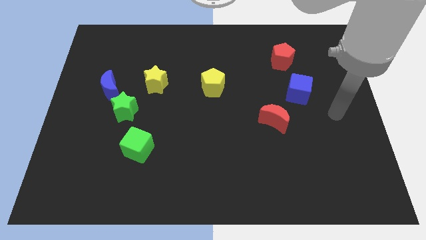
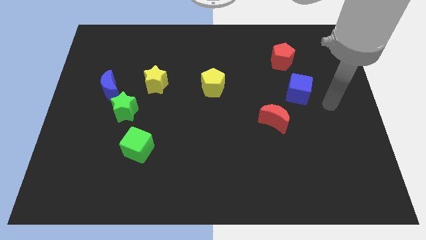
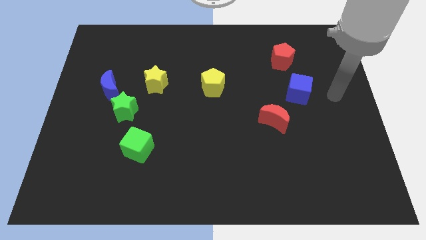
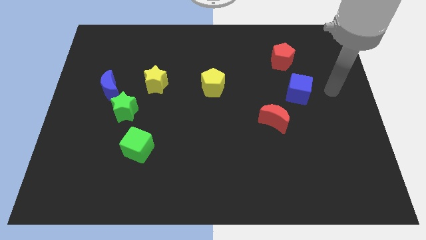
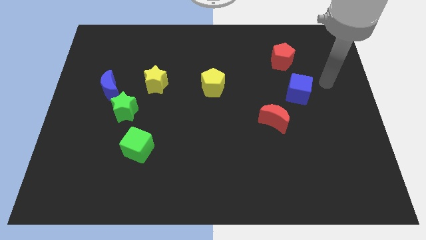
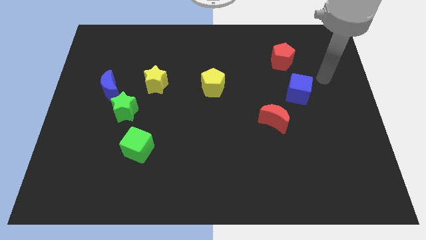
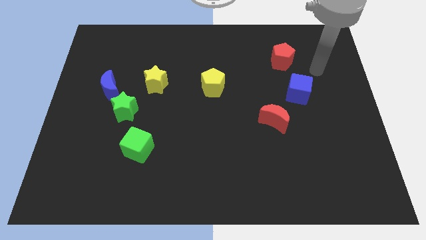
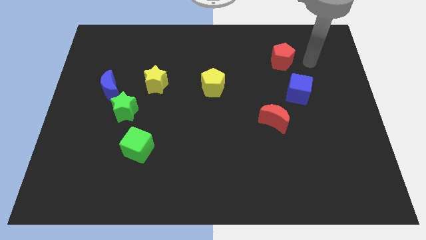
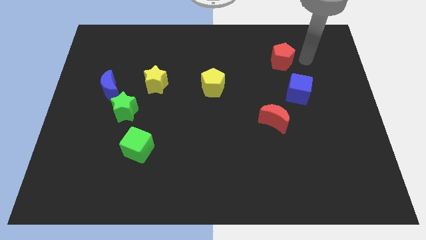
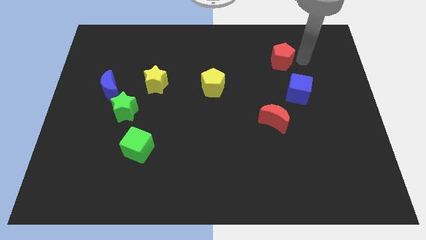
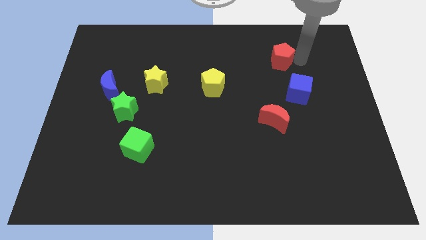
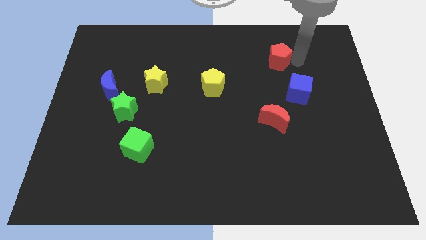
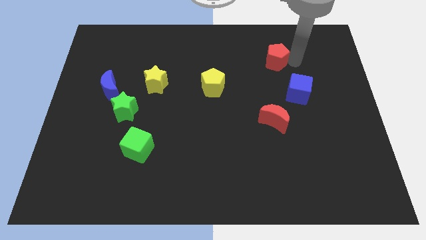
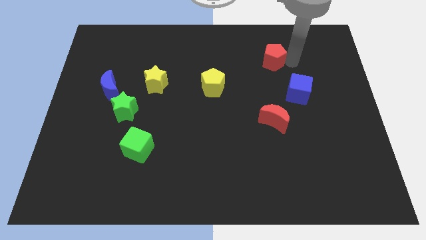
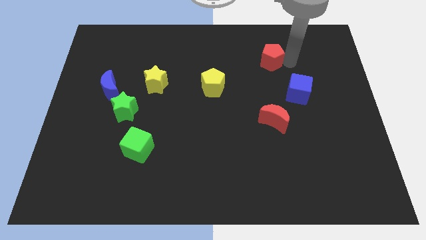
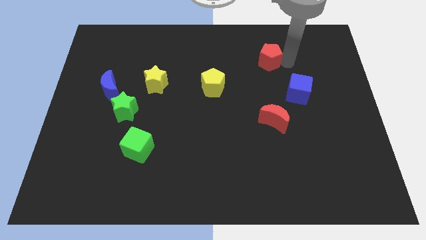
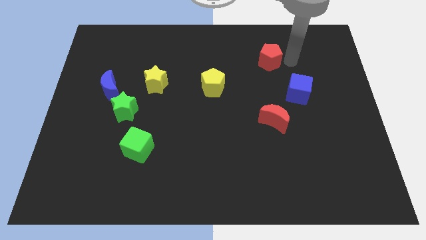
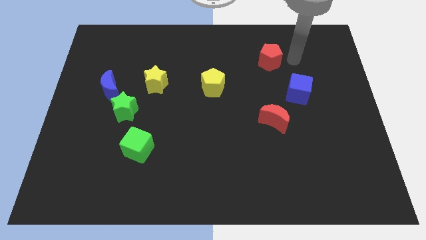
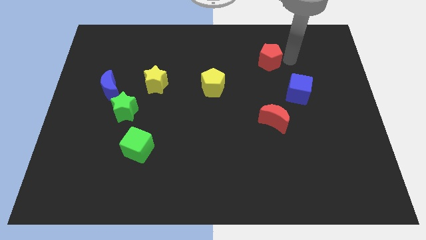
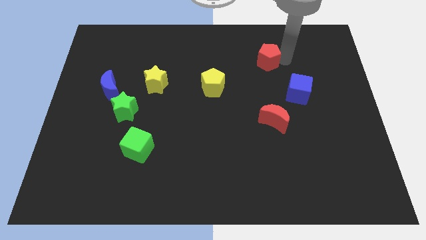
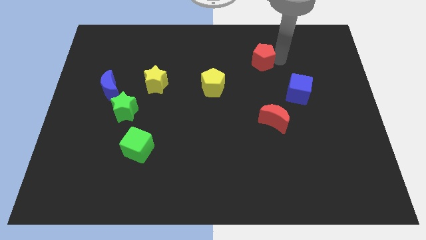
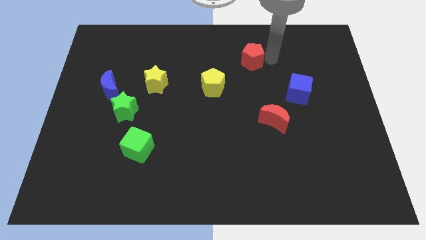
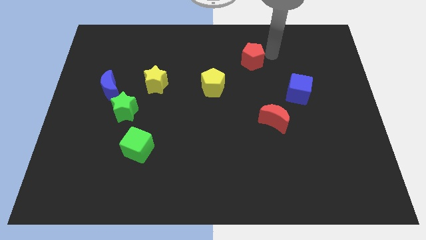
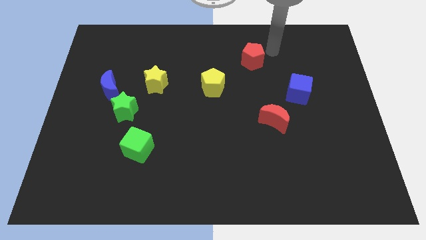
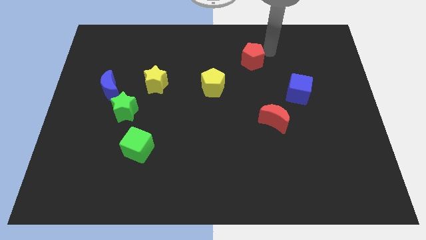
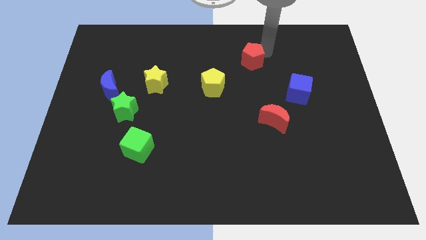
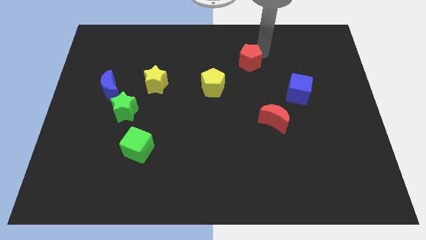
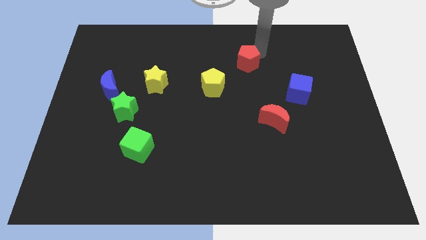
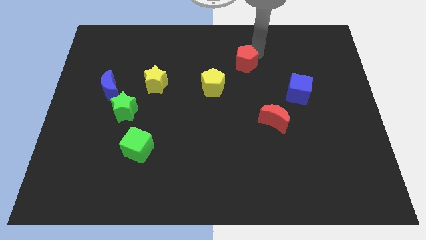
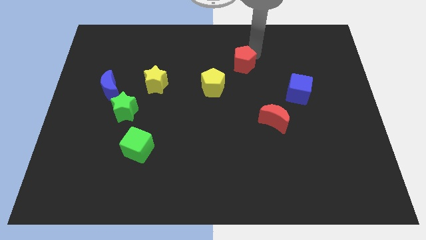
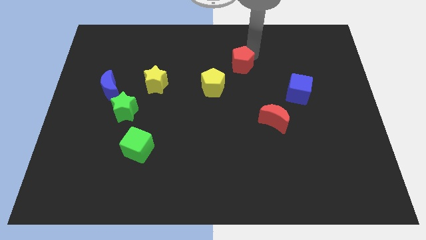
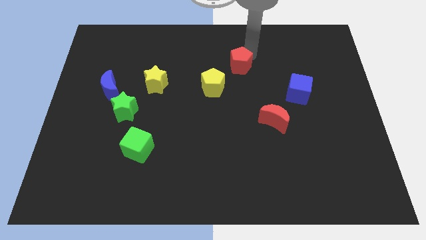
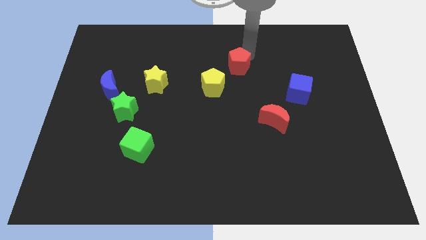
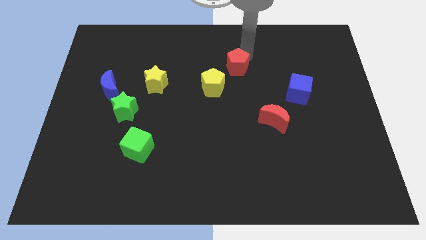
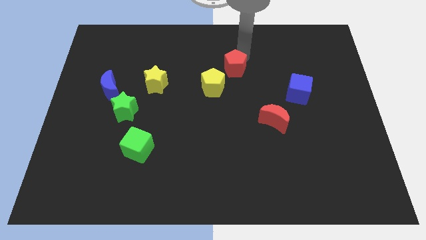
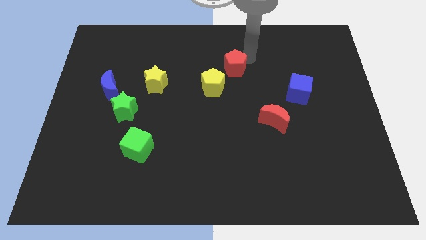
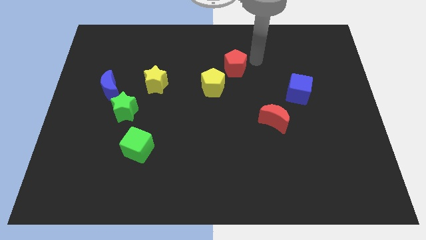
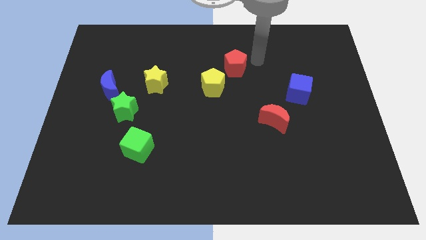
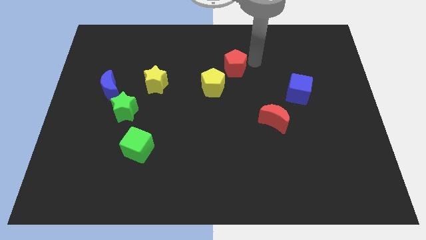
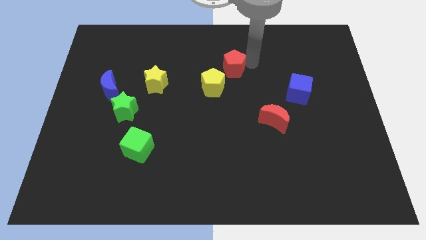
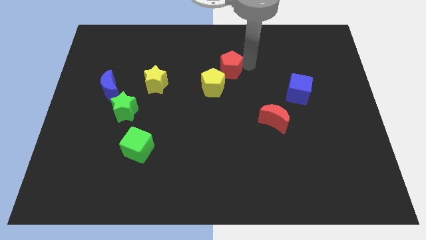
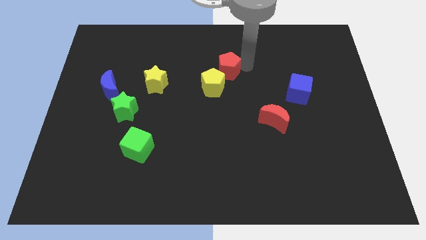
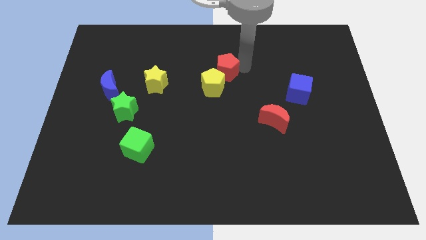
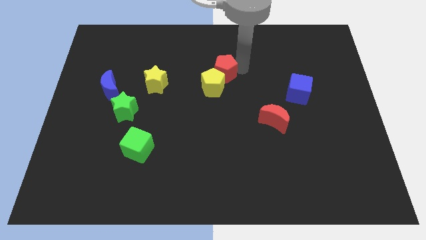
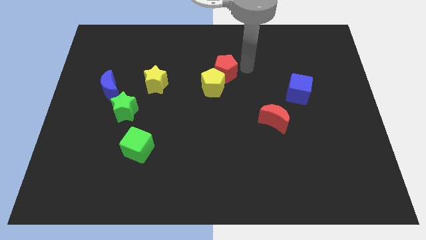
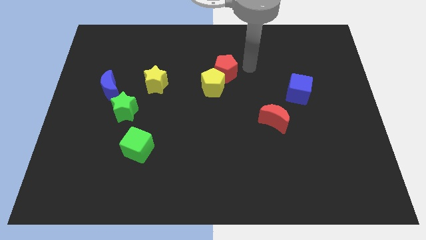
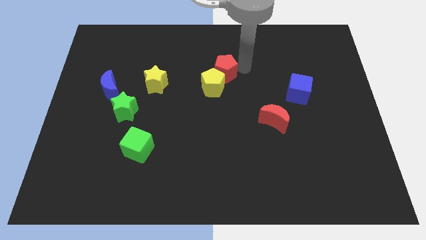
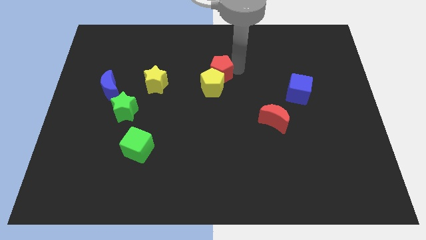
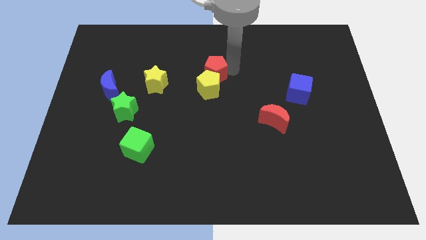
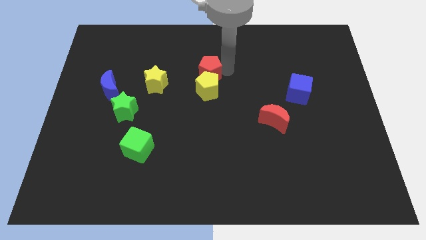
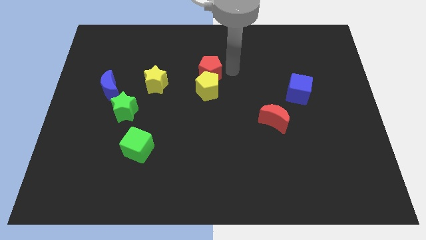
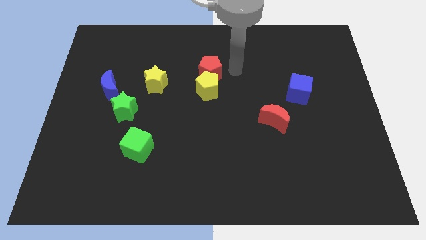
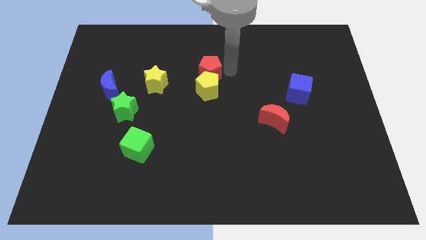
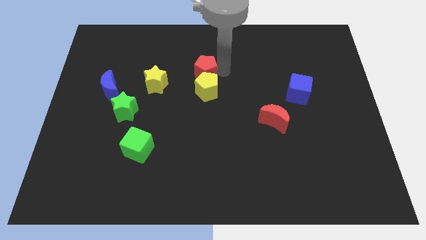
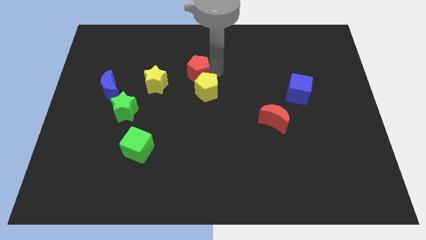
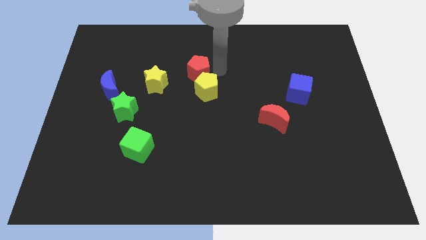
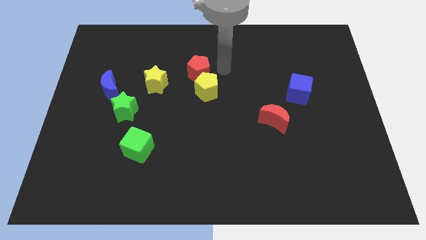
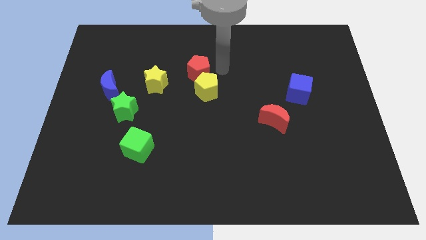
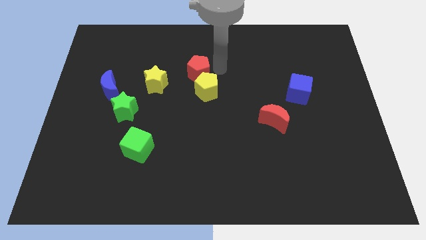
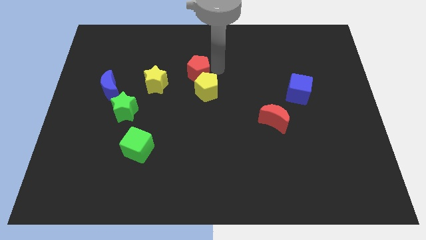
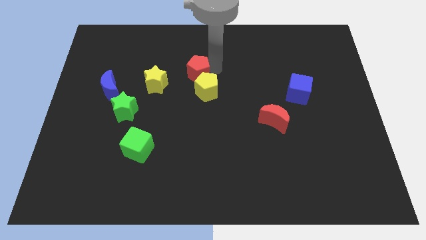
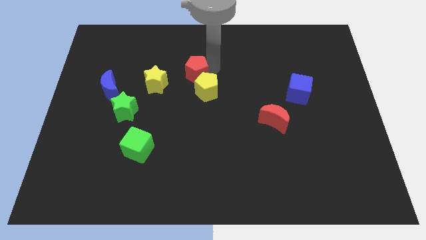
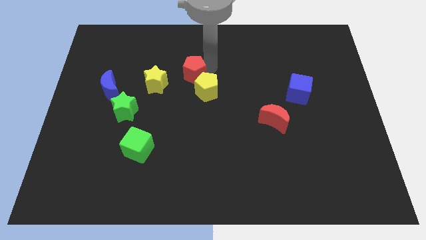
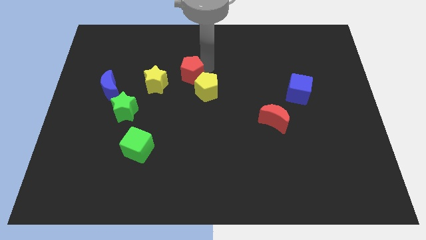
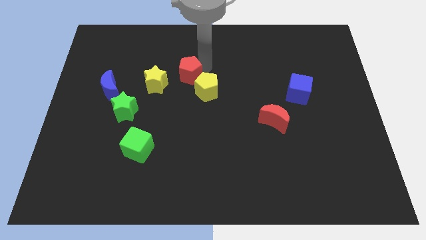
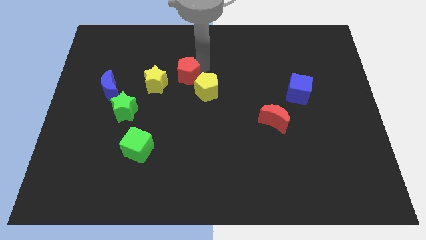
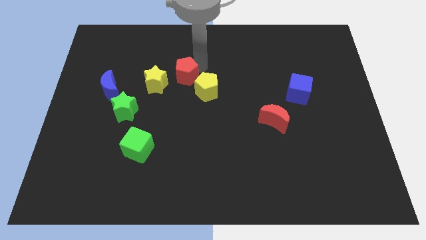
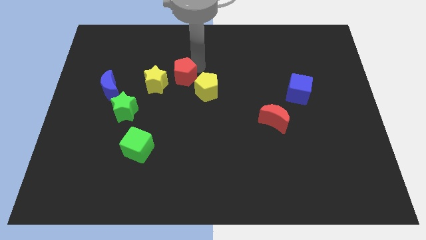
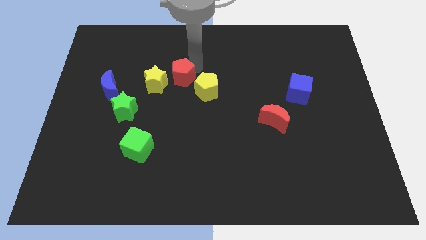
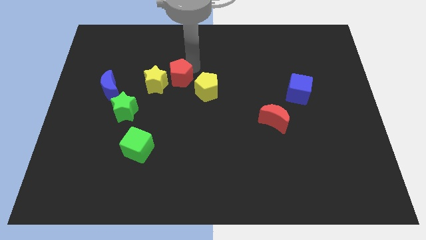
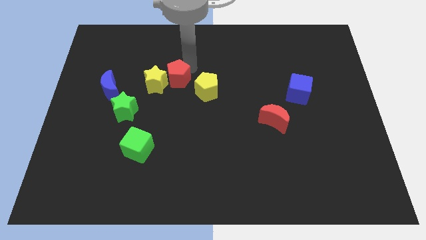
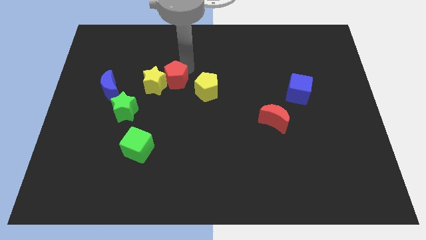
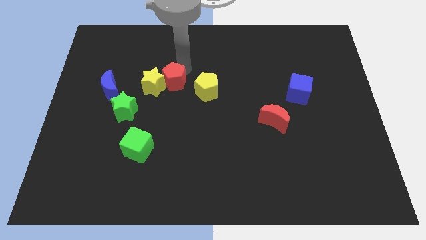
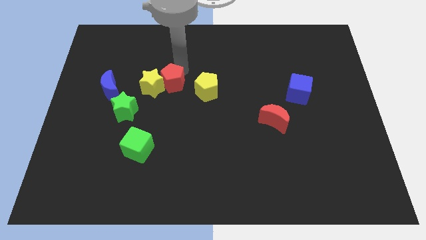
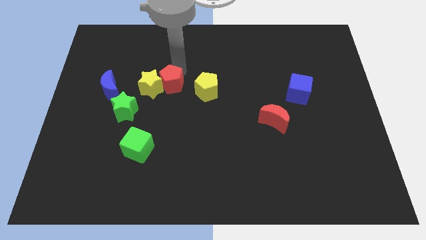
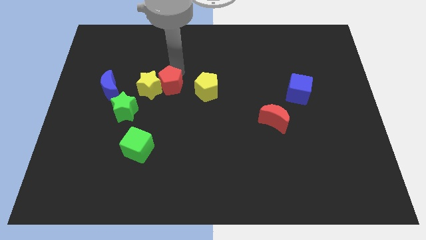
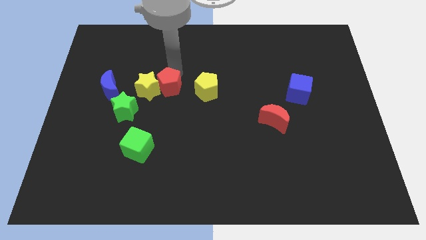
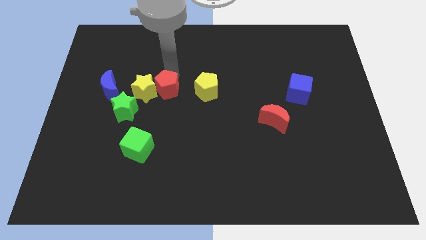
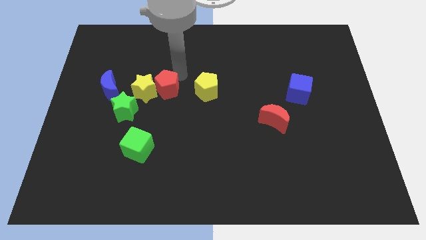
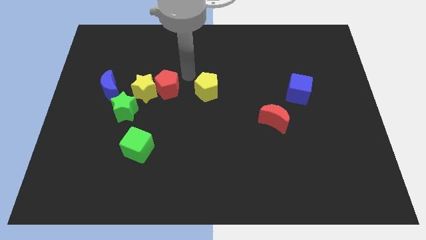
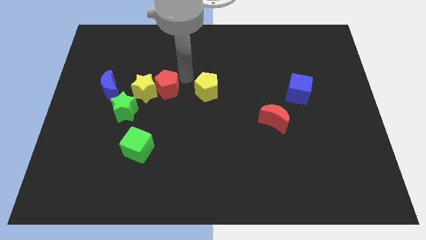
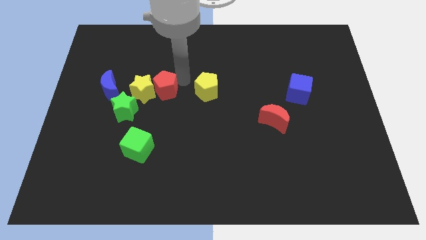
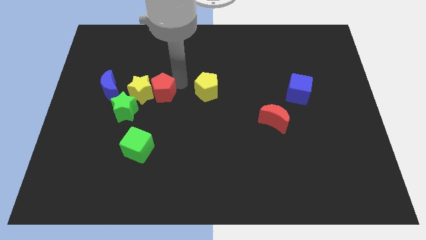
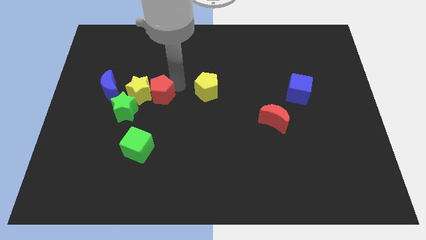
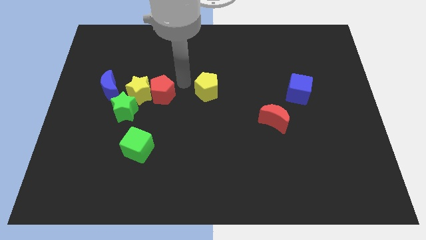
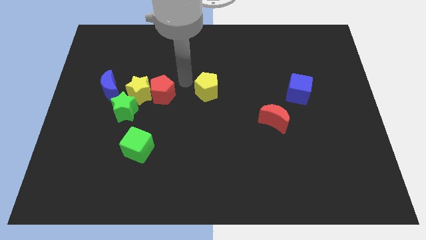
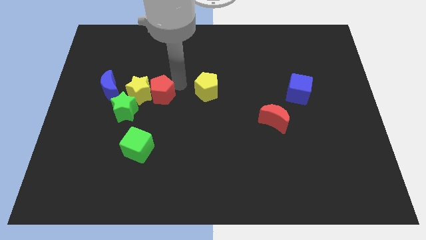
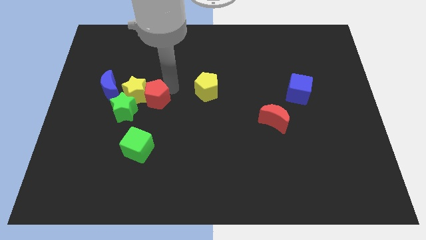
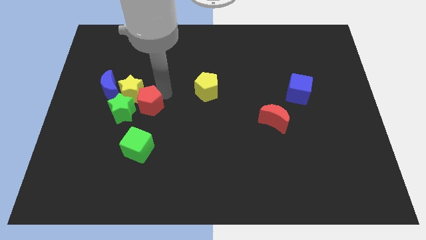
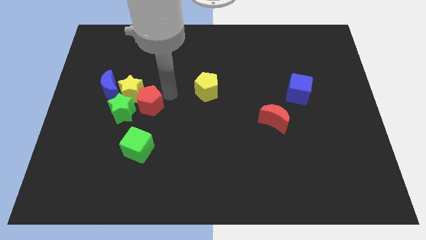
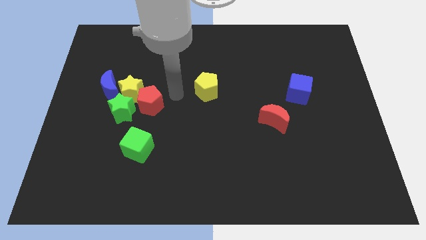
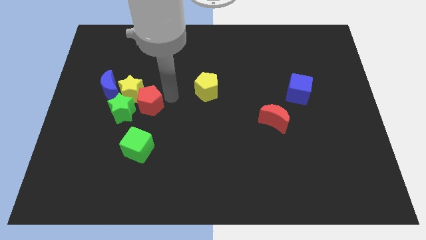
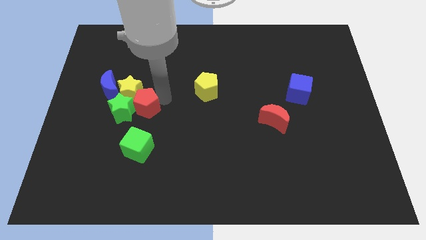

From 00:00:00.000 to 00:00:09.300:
move the red pentagon to the green star
